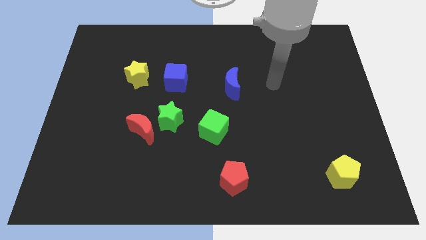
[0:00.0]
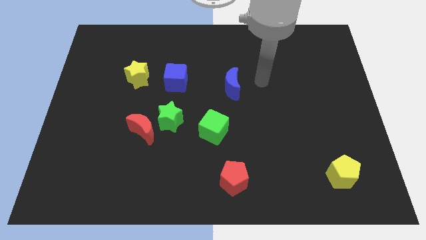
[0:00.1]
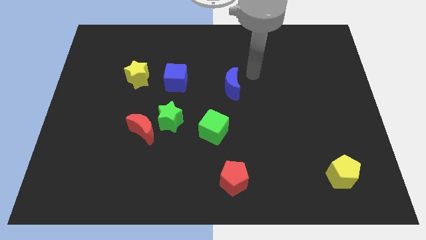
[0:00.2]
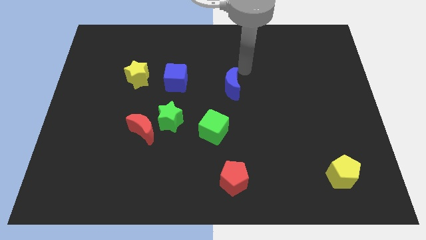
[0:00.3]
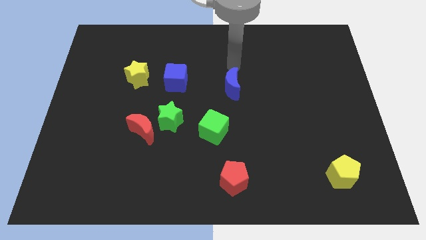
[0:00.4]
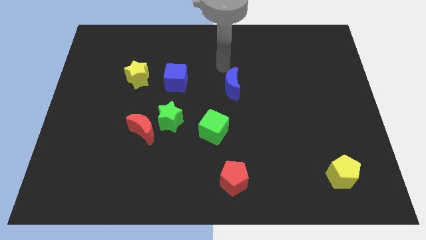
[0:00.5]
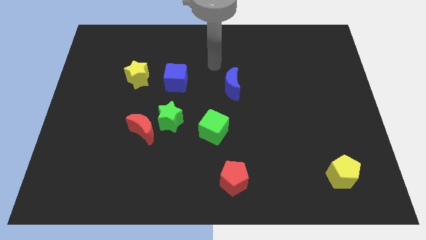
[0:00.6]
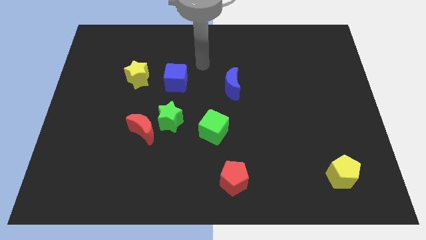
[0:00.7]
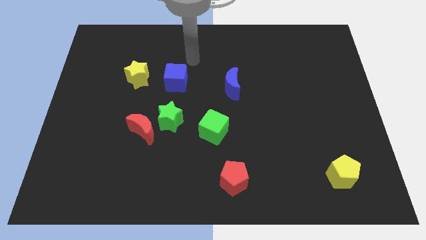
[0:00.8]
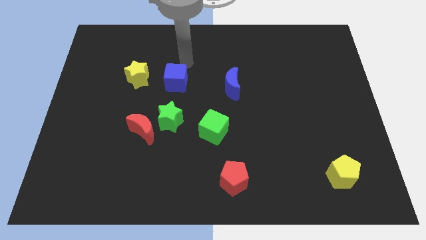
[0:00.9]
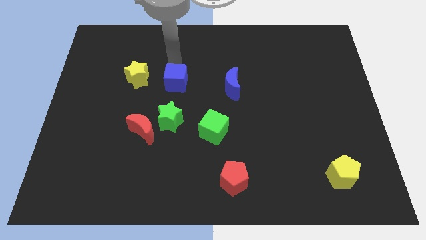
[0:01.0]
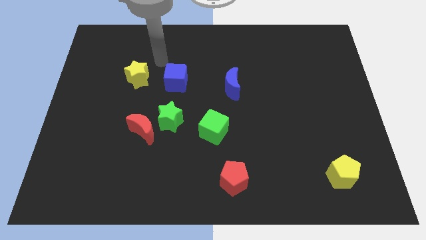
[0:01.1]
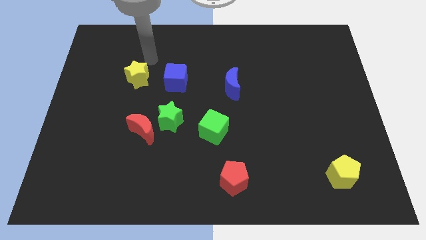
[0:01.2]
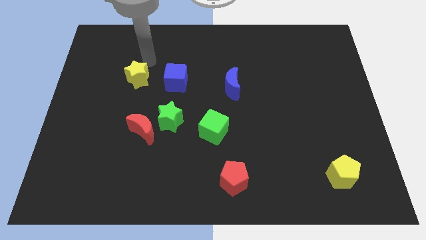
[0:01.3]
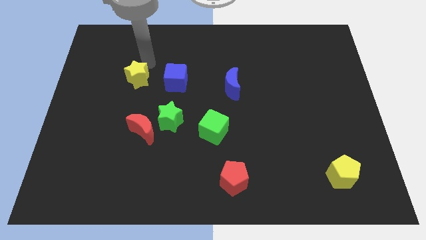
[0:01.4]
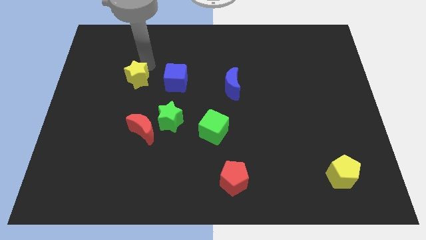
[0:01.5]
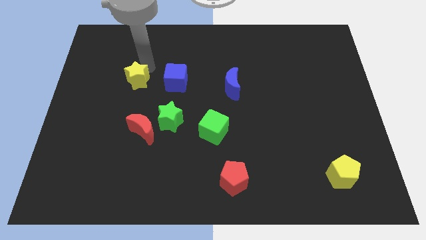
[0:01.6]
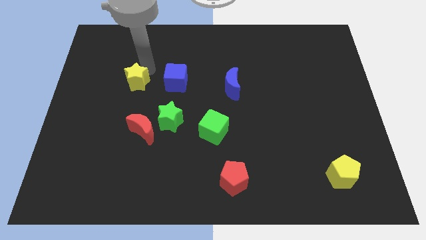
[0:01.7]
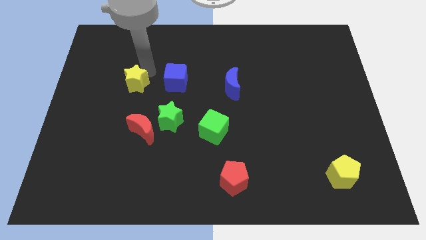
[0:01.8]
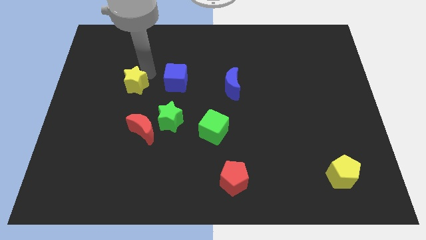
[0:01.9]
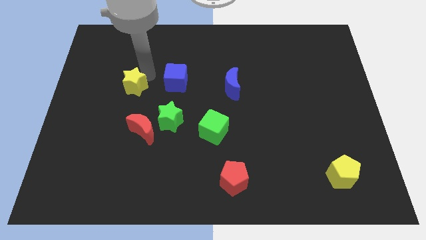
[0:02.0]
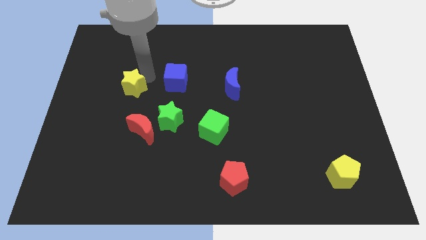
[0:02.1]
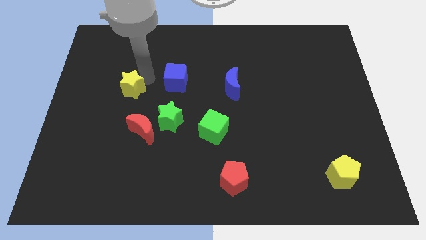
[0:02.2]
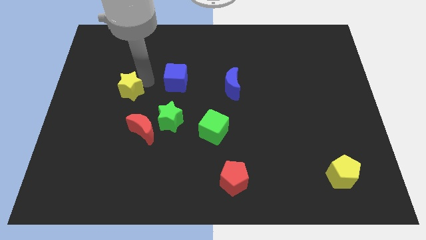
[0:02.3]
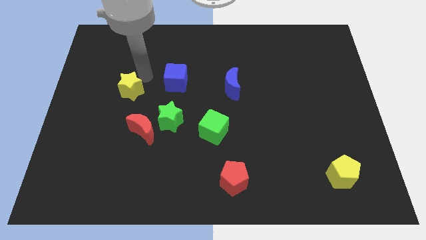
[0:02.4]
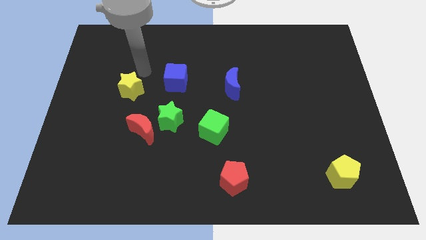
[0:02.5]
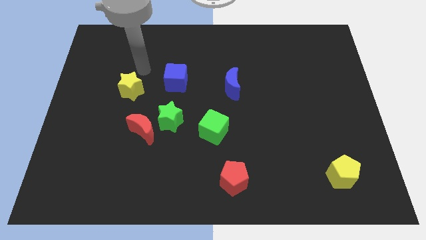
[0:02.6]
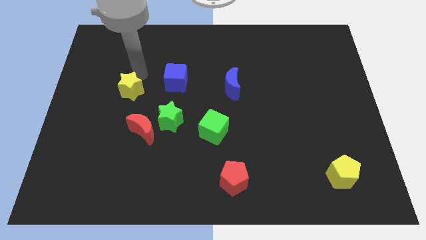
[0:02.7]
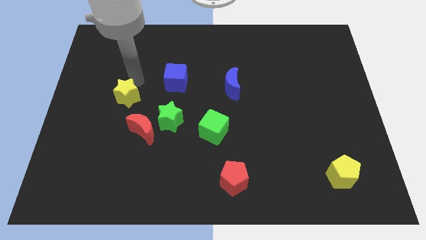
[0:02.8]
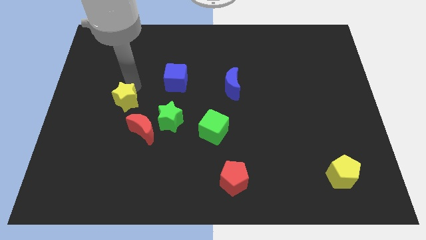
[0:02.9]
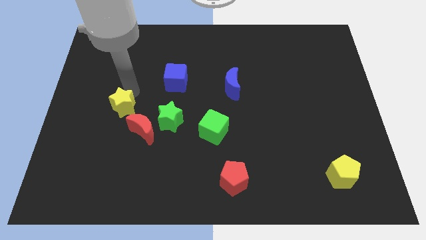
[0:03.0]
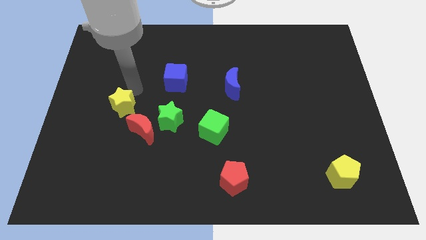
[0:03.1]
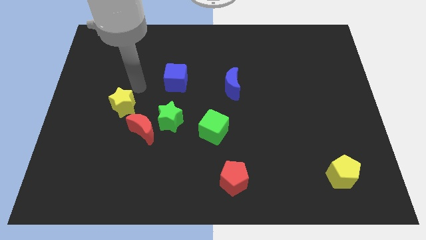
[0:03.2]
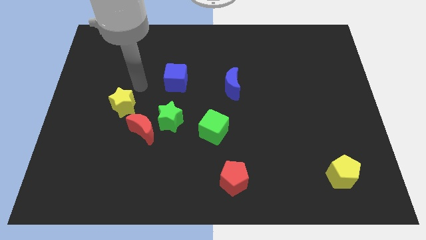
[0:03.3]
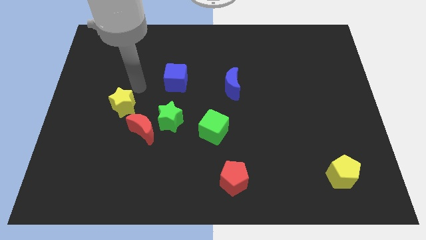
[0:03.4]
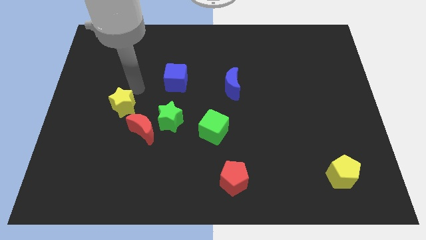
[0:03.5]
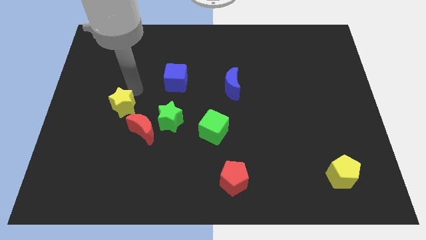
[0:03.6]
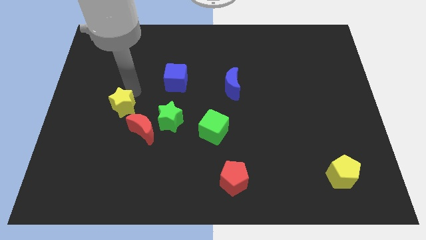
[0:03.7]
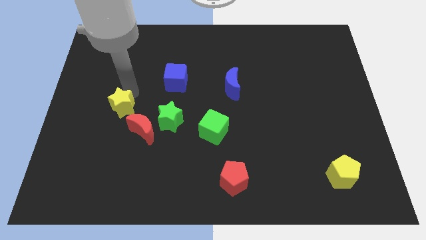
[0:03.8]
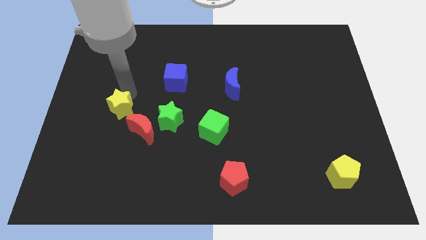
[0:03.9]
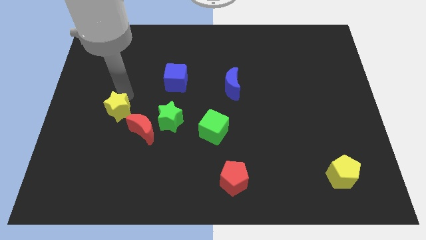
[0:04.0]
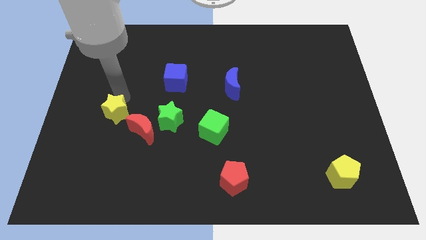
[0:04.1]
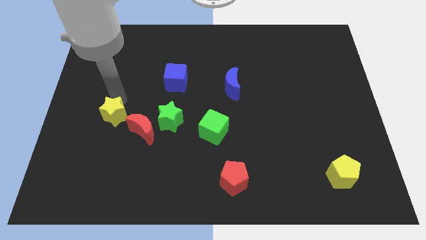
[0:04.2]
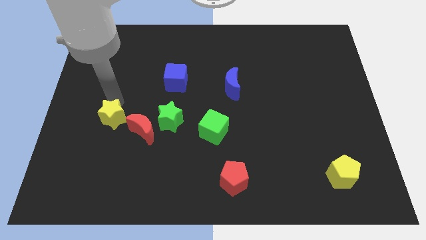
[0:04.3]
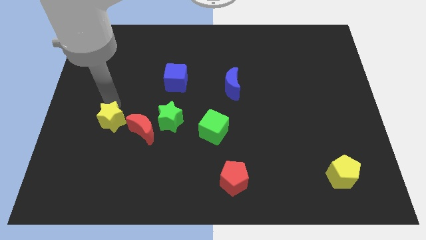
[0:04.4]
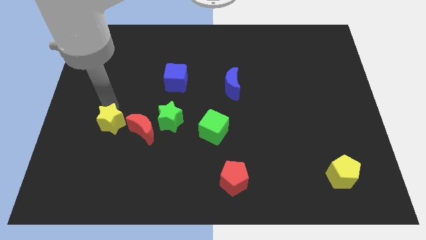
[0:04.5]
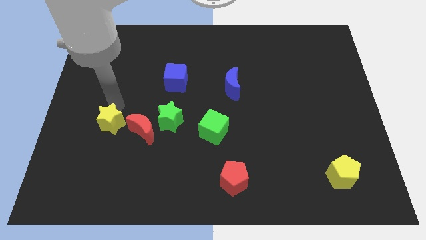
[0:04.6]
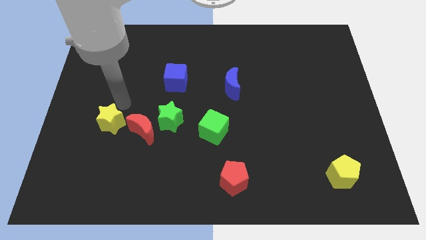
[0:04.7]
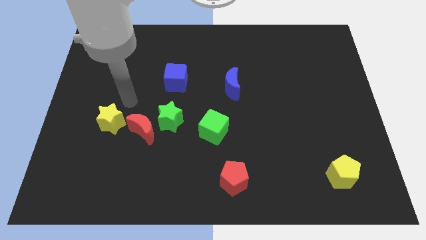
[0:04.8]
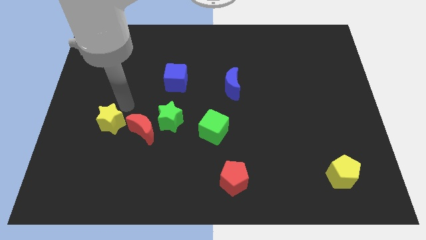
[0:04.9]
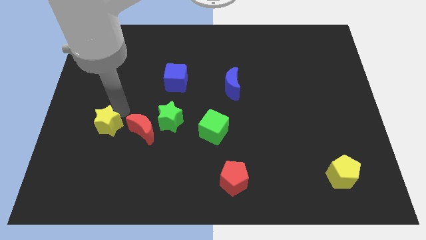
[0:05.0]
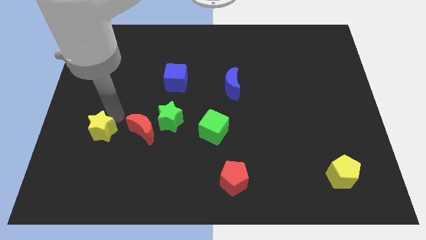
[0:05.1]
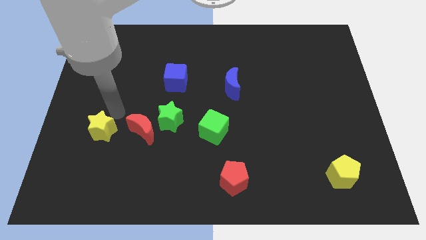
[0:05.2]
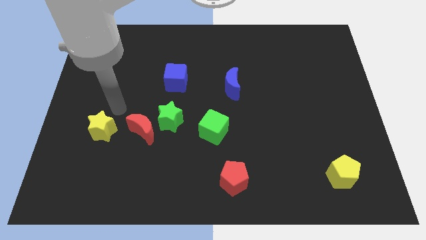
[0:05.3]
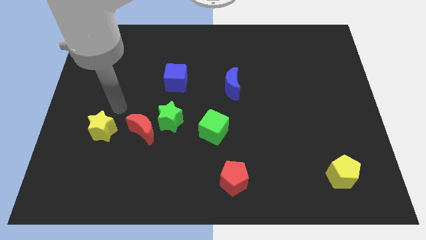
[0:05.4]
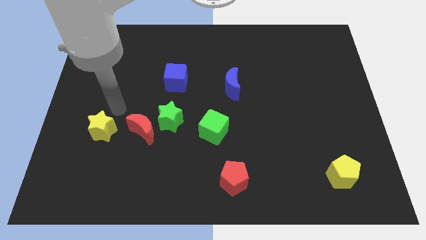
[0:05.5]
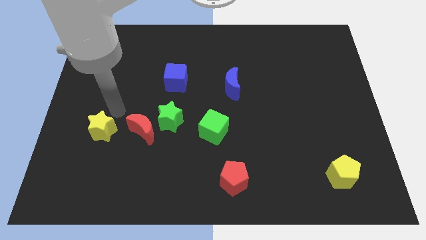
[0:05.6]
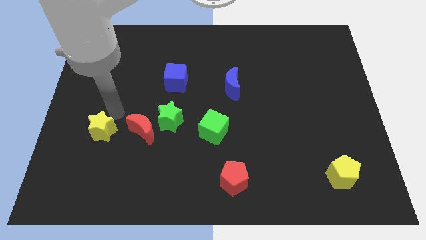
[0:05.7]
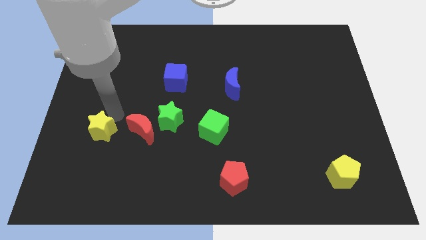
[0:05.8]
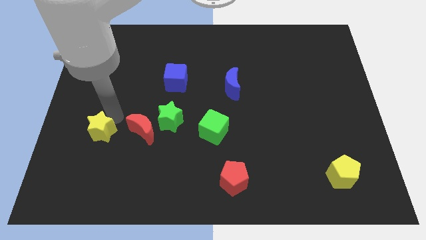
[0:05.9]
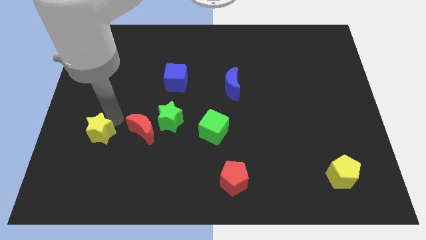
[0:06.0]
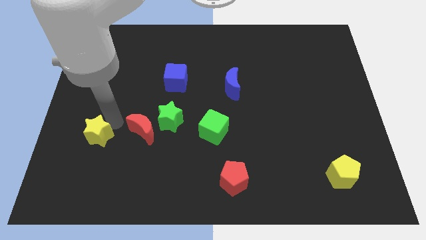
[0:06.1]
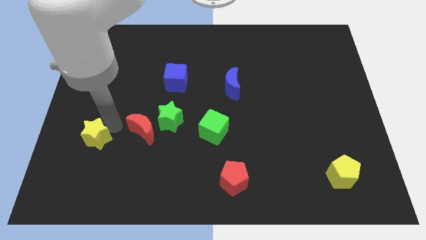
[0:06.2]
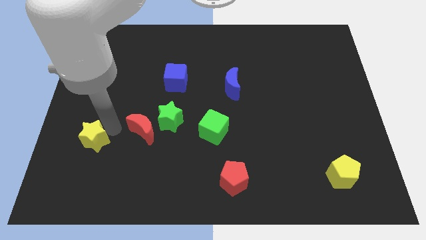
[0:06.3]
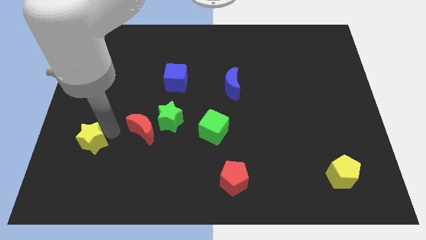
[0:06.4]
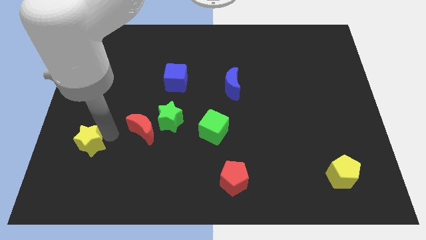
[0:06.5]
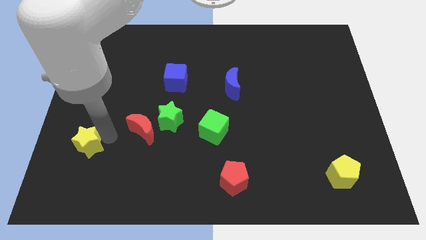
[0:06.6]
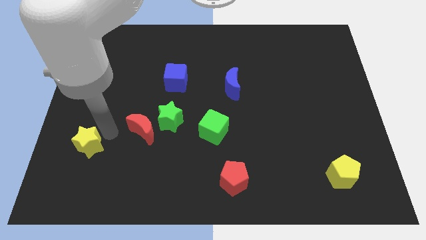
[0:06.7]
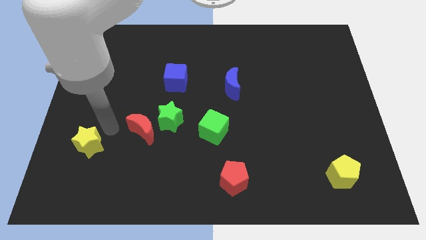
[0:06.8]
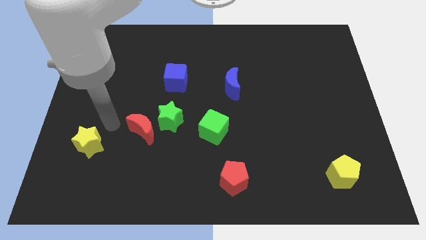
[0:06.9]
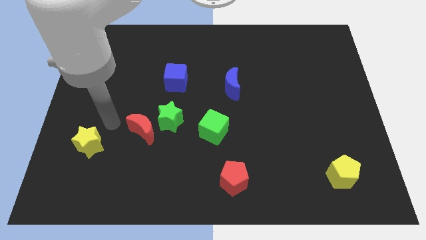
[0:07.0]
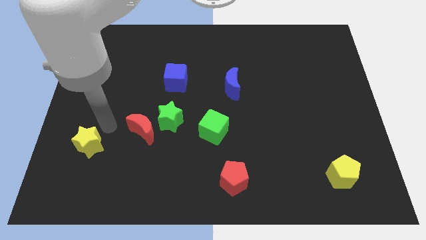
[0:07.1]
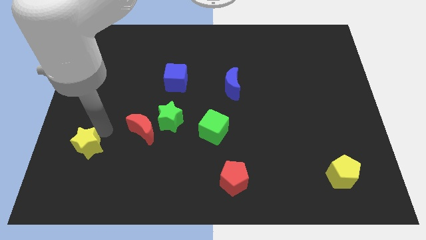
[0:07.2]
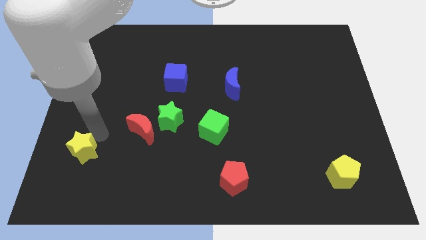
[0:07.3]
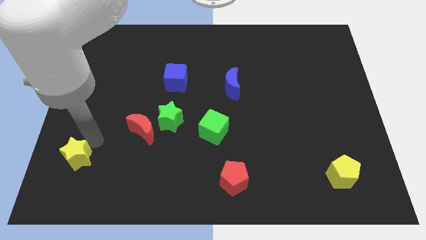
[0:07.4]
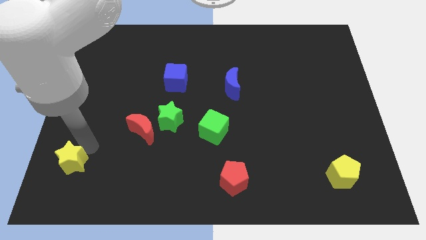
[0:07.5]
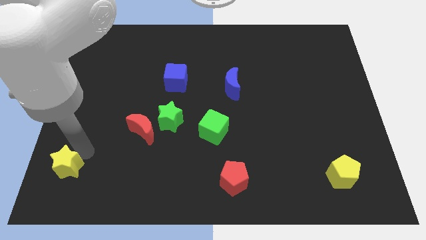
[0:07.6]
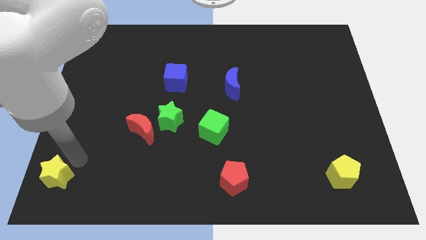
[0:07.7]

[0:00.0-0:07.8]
push the yellow star to the bottom left of the board
